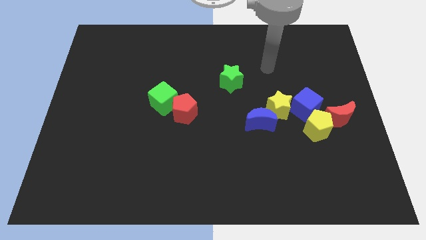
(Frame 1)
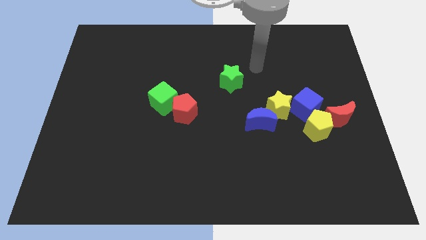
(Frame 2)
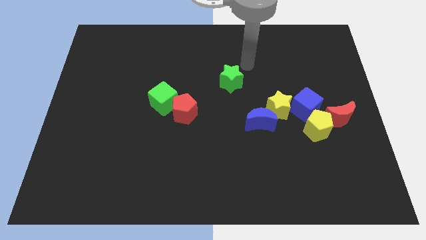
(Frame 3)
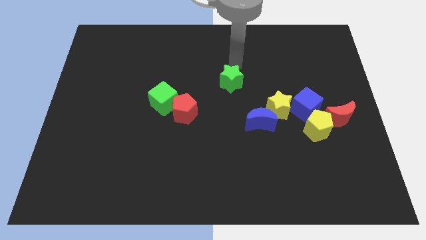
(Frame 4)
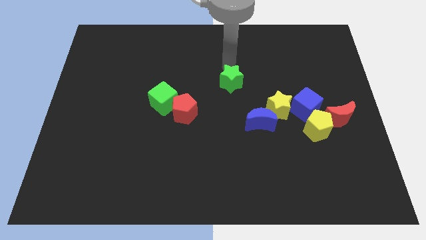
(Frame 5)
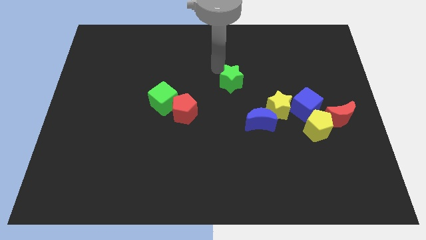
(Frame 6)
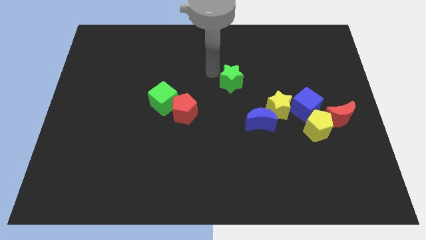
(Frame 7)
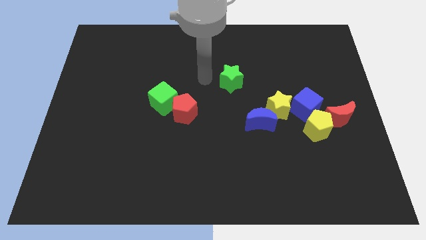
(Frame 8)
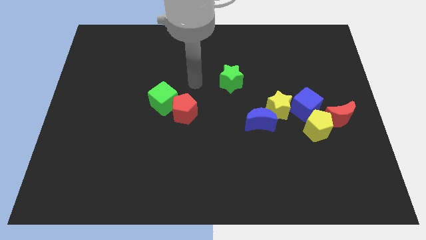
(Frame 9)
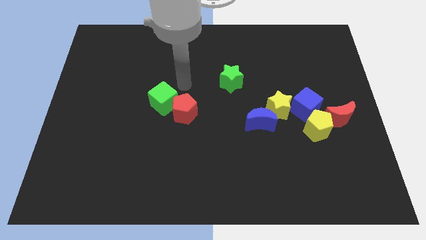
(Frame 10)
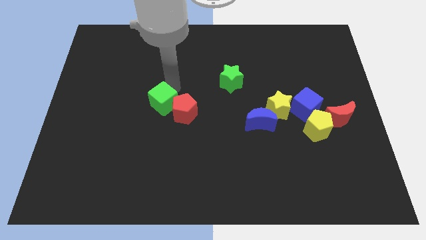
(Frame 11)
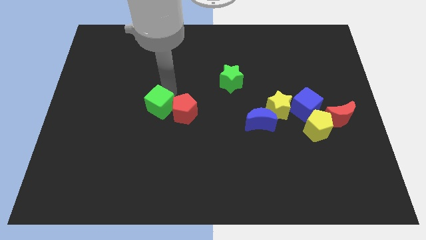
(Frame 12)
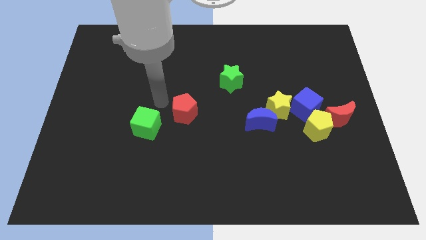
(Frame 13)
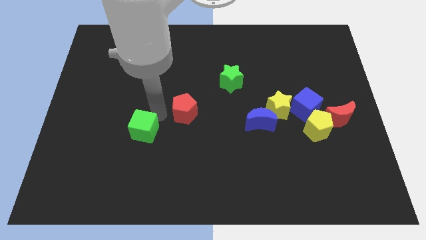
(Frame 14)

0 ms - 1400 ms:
move the red pentagon away from the green cube

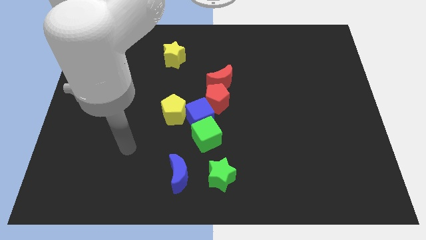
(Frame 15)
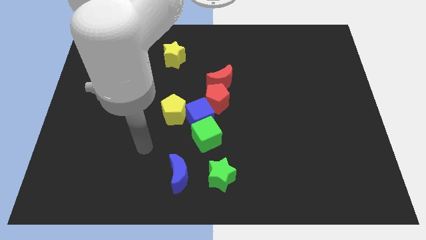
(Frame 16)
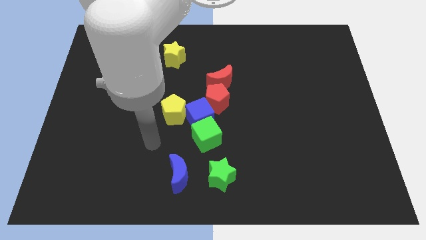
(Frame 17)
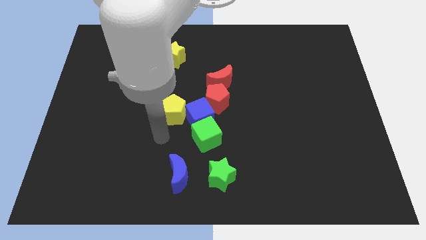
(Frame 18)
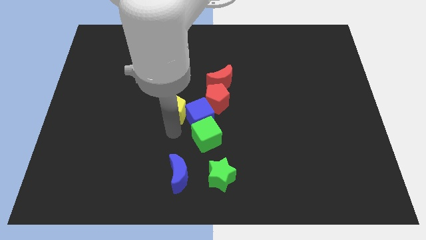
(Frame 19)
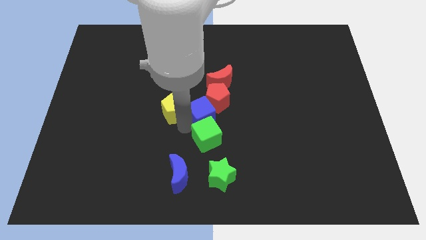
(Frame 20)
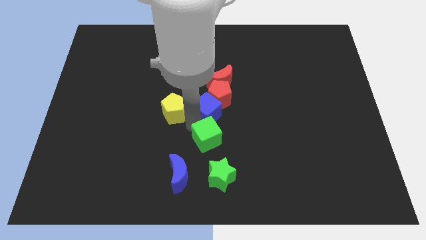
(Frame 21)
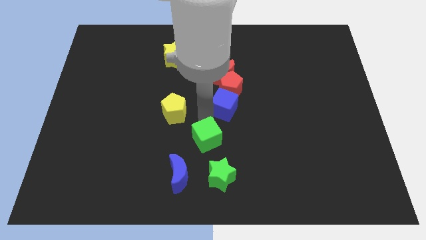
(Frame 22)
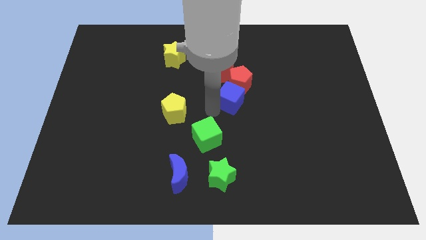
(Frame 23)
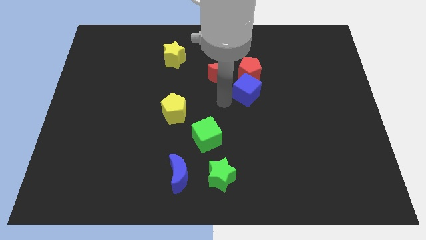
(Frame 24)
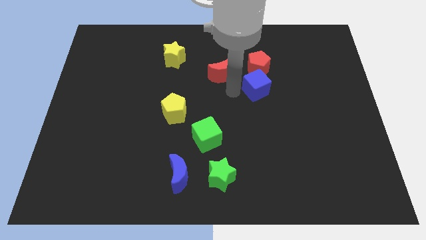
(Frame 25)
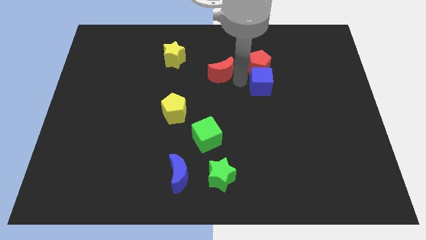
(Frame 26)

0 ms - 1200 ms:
move the red moon away from the red pentagon

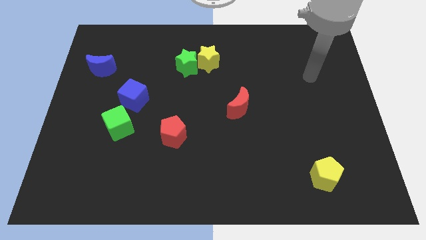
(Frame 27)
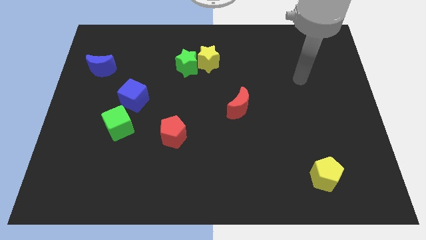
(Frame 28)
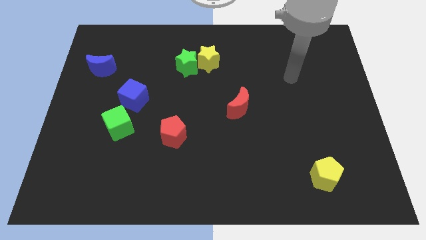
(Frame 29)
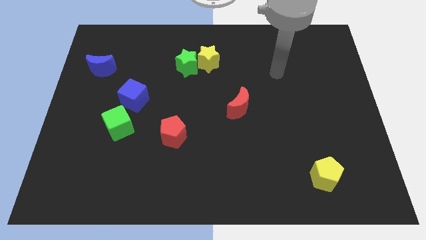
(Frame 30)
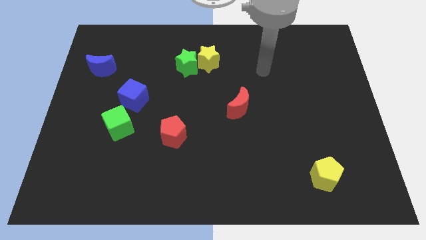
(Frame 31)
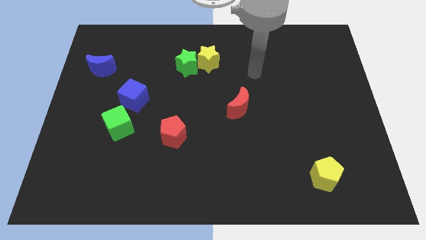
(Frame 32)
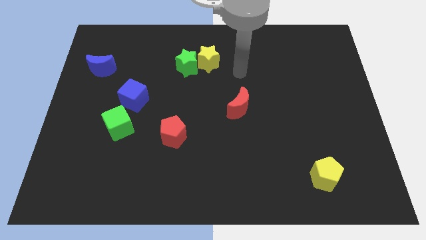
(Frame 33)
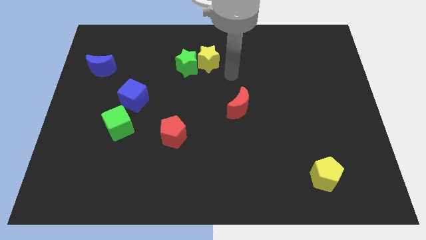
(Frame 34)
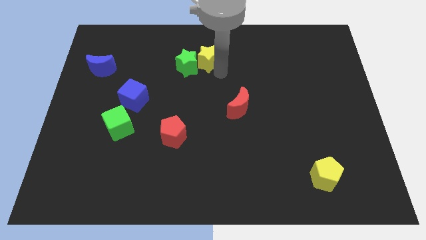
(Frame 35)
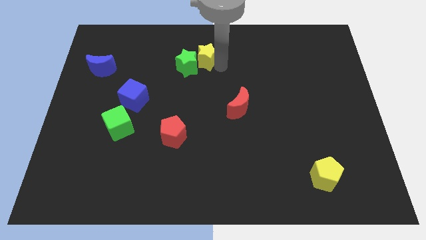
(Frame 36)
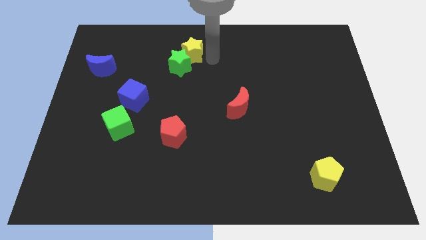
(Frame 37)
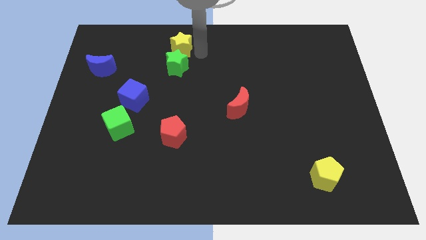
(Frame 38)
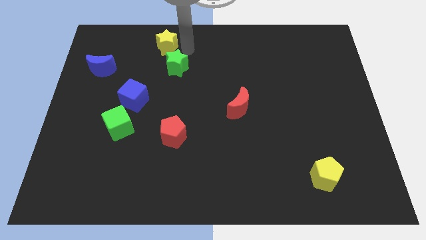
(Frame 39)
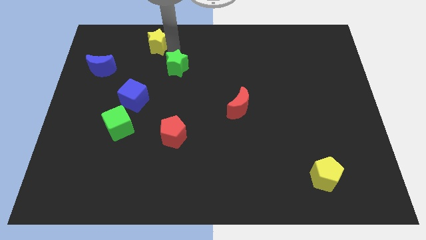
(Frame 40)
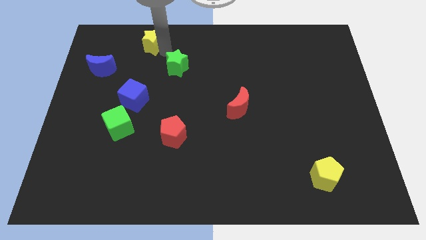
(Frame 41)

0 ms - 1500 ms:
move the green star away from the yellow star

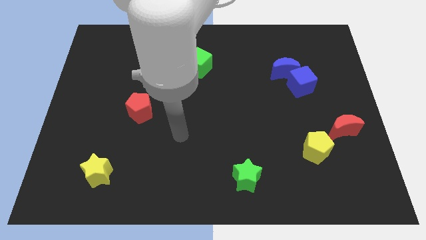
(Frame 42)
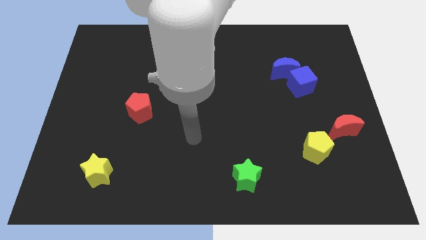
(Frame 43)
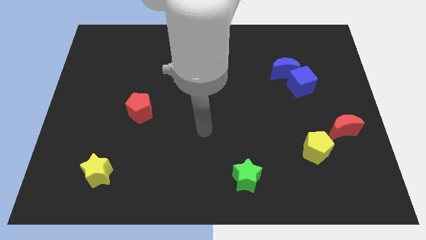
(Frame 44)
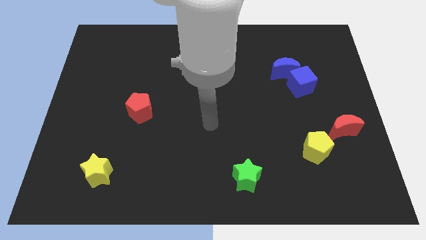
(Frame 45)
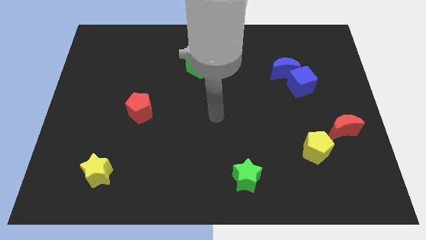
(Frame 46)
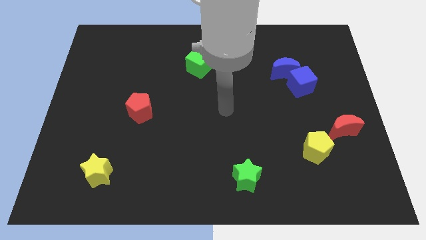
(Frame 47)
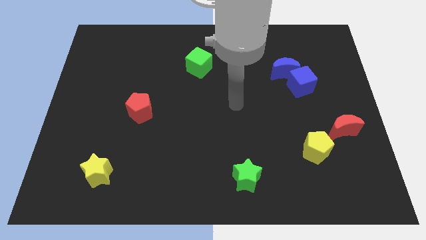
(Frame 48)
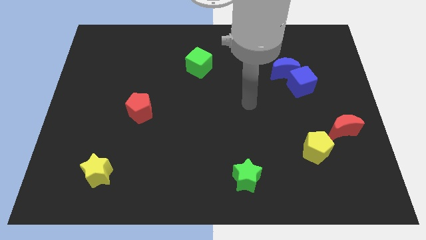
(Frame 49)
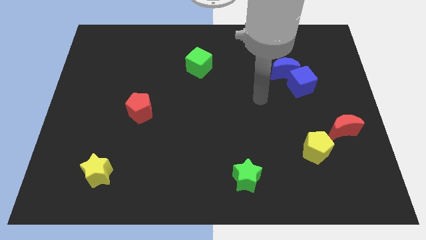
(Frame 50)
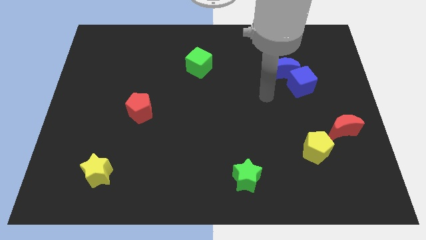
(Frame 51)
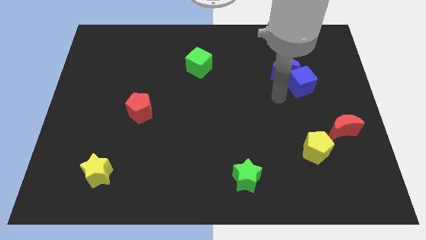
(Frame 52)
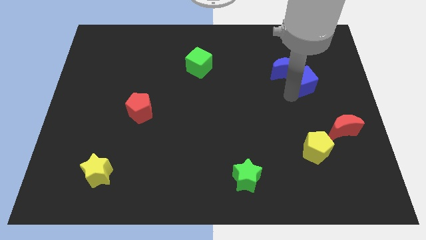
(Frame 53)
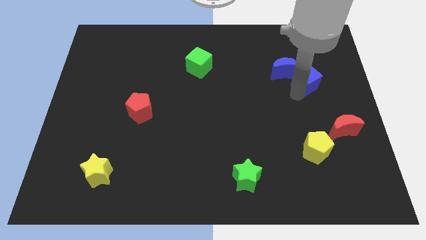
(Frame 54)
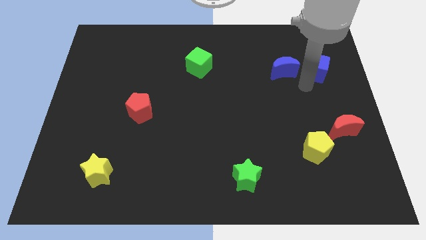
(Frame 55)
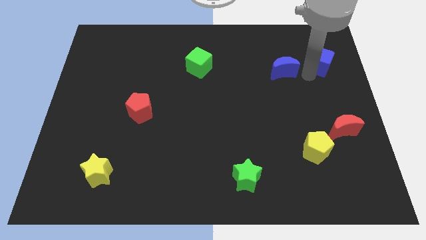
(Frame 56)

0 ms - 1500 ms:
move the blue moon away from the blue cube

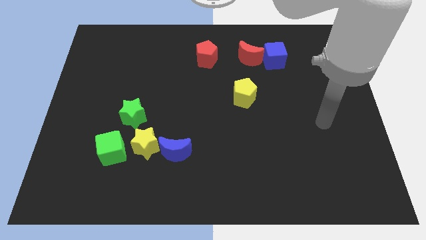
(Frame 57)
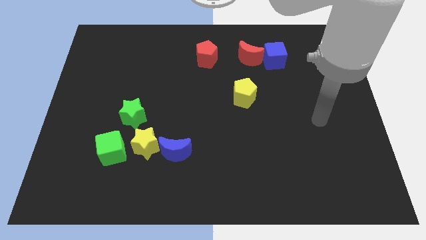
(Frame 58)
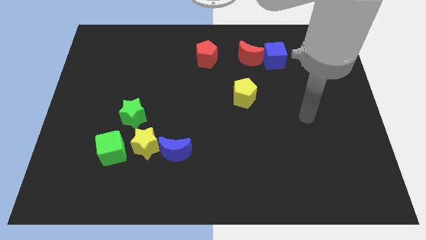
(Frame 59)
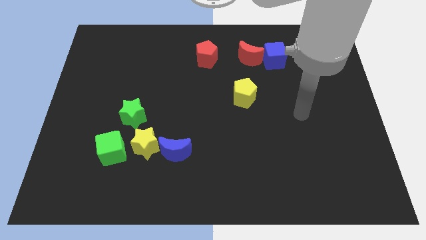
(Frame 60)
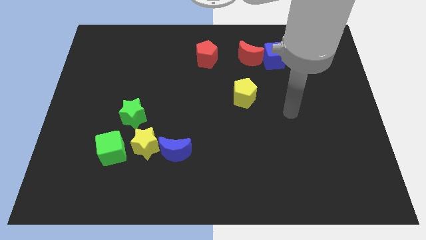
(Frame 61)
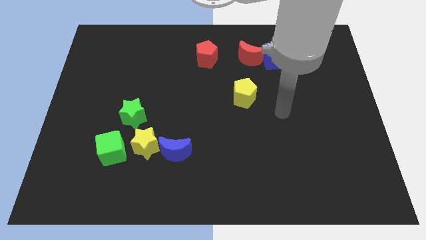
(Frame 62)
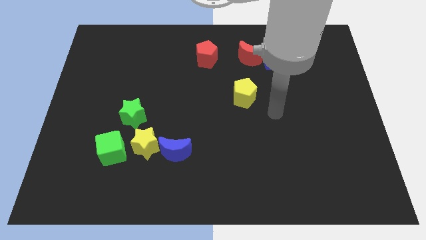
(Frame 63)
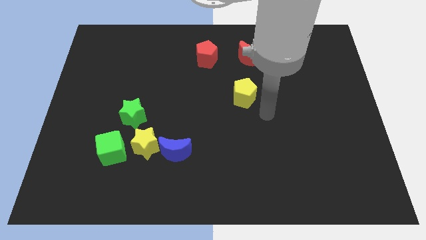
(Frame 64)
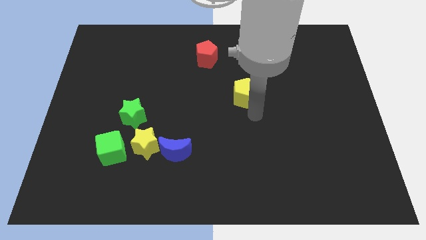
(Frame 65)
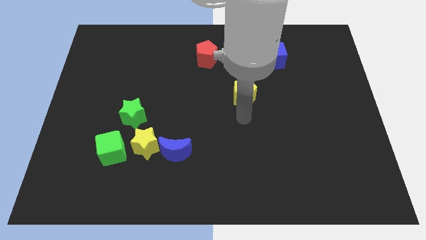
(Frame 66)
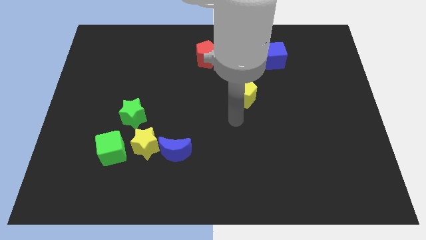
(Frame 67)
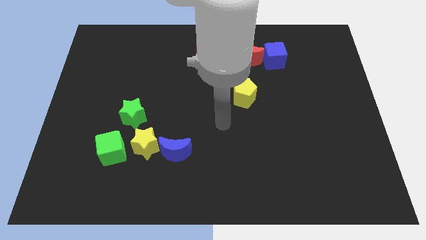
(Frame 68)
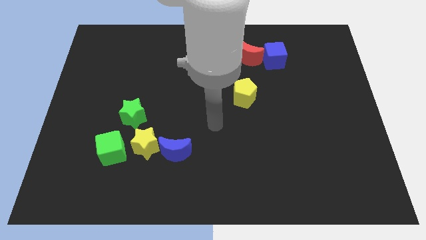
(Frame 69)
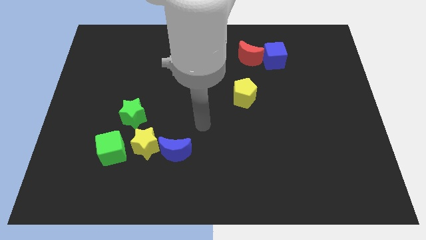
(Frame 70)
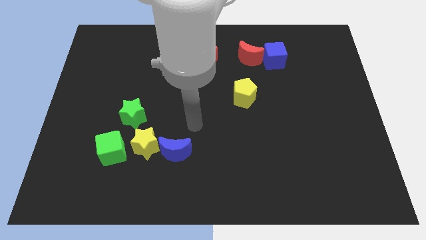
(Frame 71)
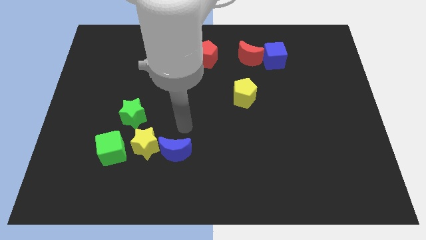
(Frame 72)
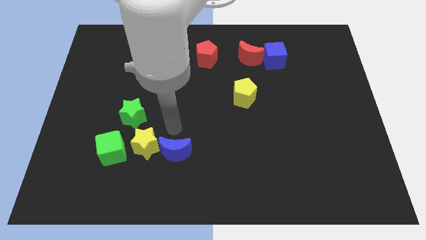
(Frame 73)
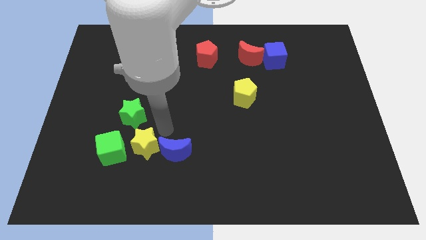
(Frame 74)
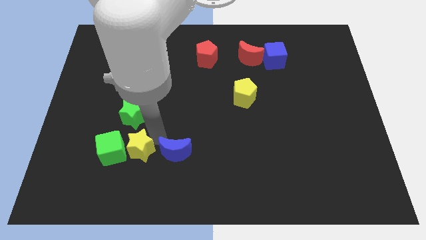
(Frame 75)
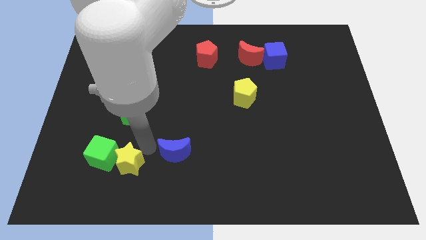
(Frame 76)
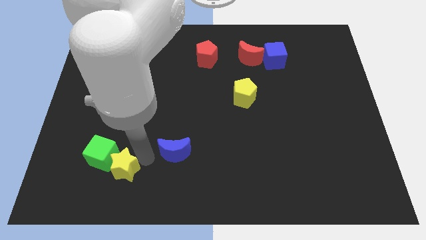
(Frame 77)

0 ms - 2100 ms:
pull the blue moon apart from the yellow star

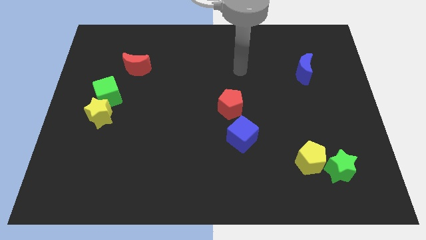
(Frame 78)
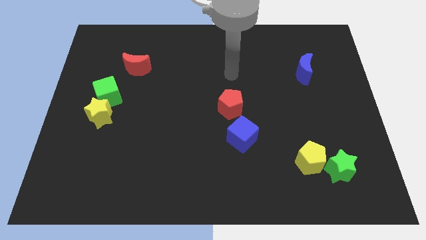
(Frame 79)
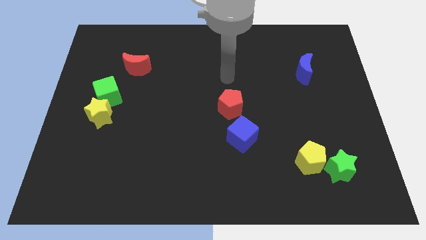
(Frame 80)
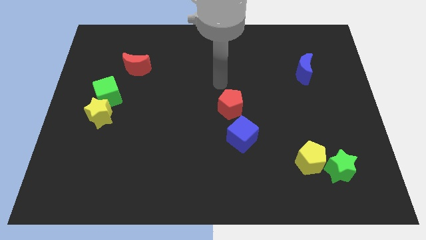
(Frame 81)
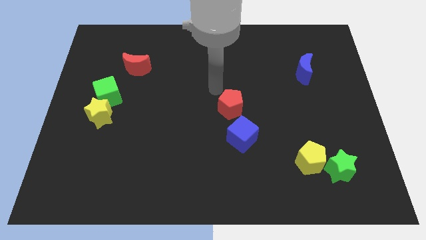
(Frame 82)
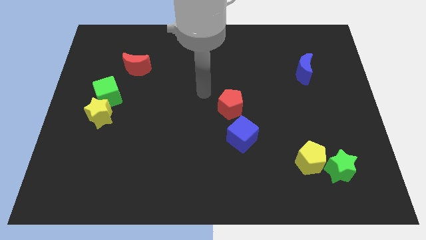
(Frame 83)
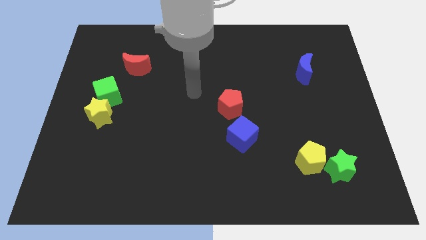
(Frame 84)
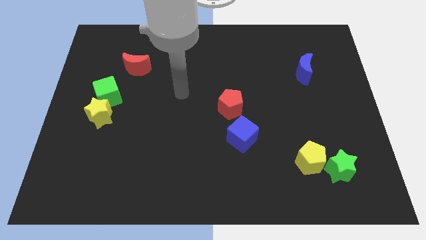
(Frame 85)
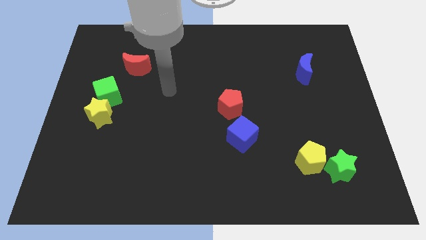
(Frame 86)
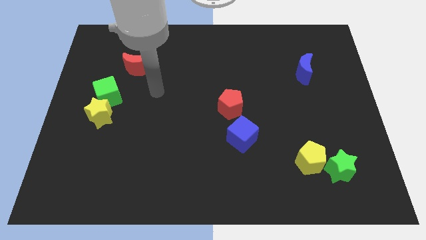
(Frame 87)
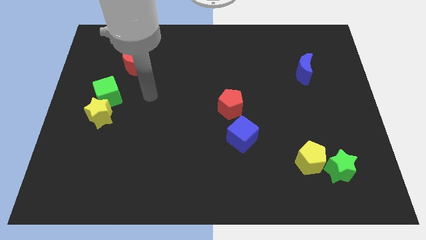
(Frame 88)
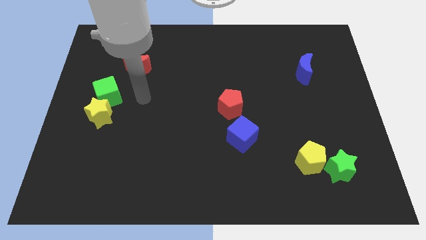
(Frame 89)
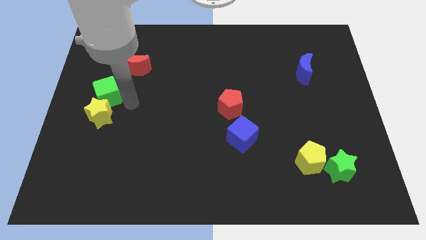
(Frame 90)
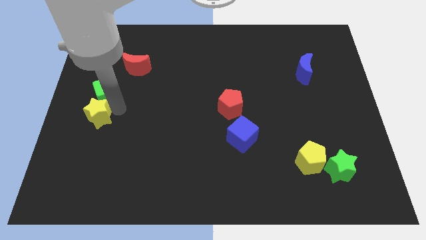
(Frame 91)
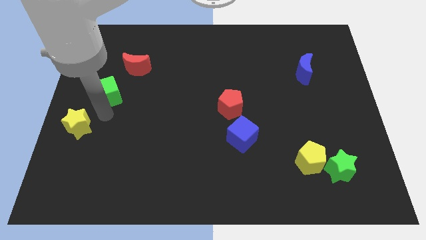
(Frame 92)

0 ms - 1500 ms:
pull the green cube apart from the yellow star
